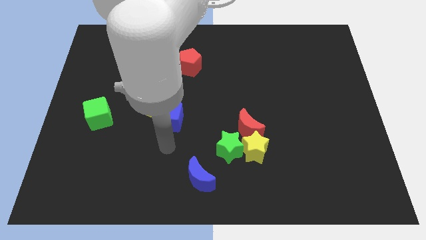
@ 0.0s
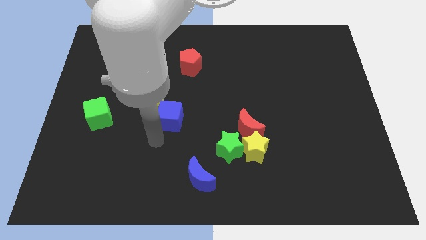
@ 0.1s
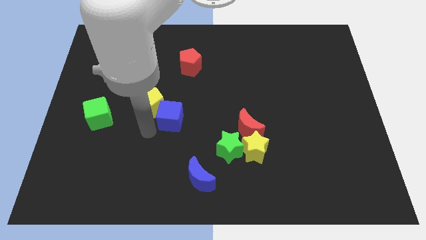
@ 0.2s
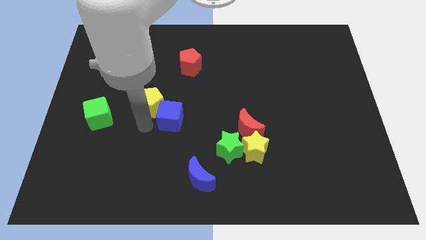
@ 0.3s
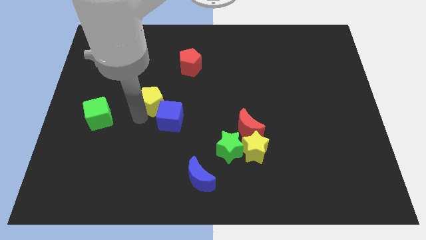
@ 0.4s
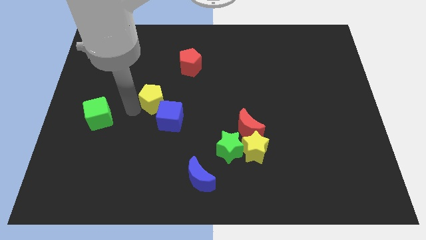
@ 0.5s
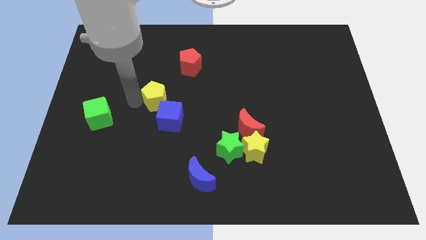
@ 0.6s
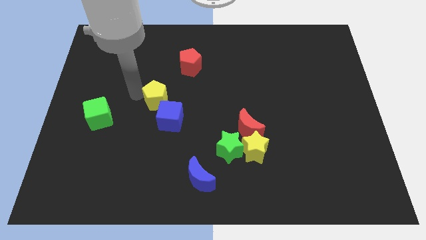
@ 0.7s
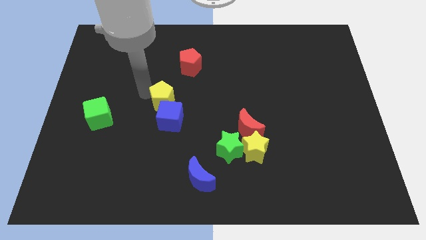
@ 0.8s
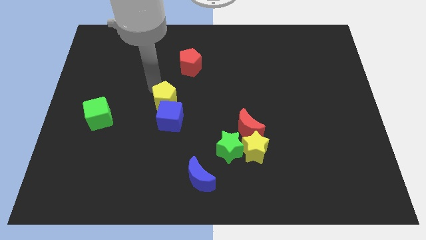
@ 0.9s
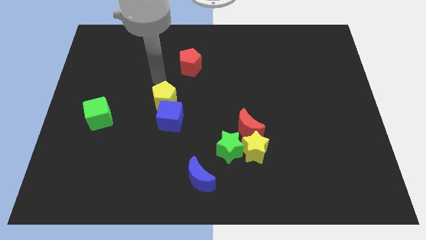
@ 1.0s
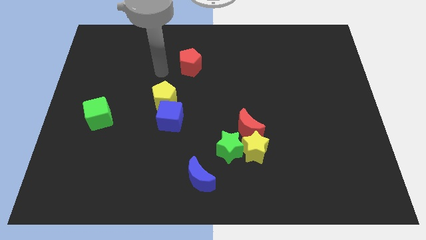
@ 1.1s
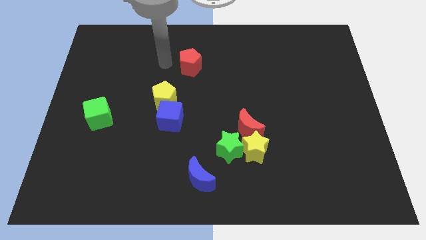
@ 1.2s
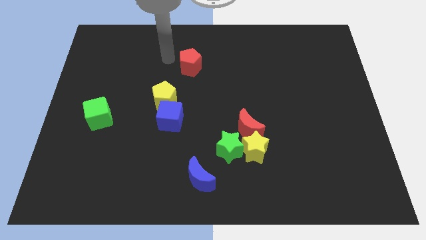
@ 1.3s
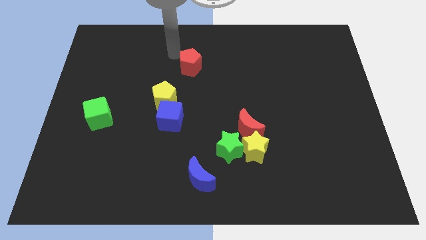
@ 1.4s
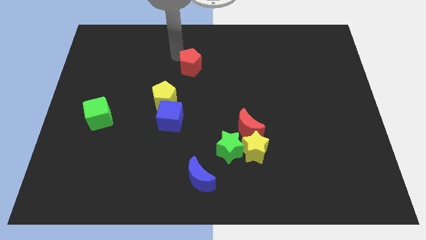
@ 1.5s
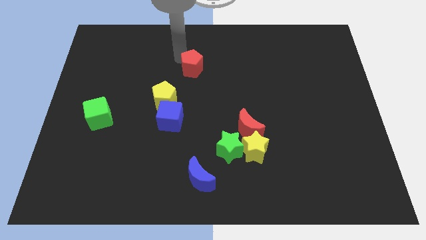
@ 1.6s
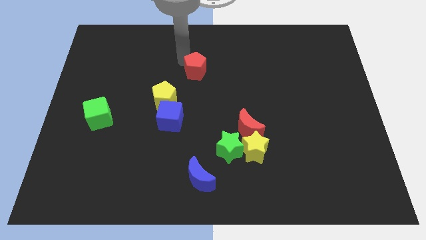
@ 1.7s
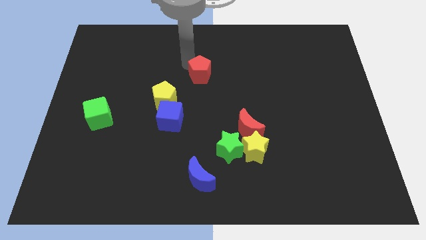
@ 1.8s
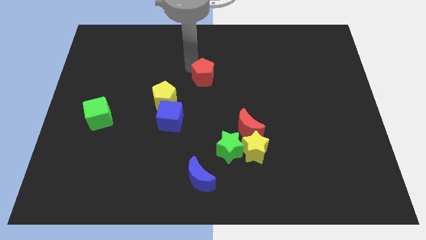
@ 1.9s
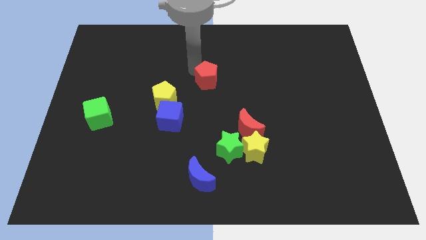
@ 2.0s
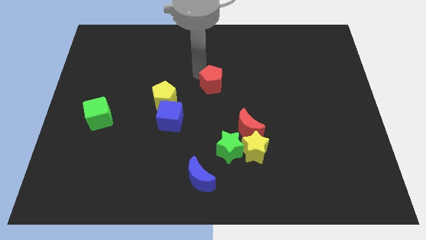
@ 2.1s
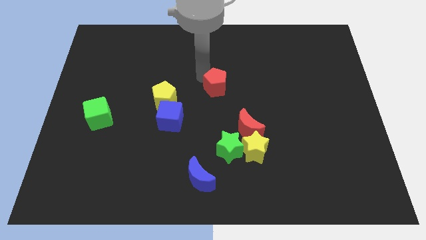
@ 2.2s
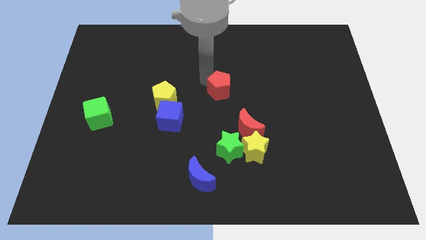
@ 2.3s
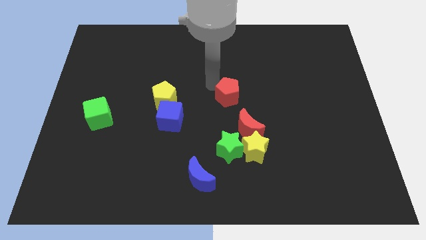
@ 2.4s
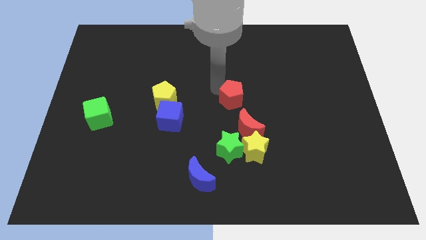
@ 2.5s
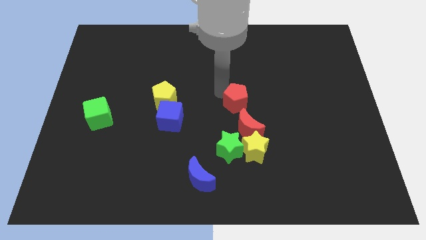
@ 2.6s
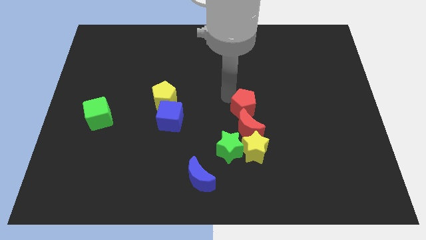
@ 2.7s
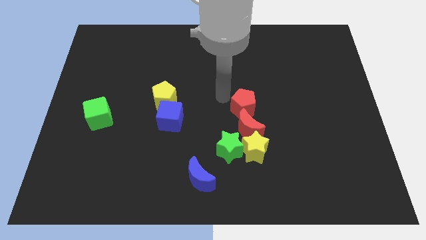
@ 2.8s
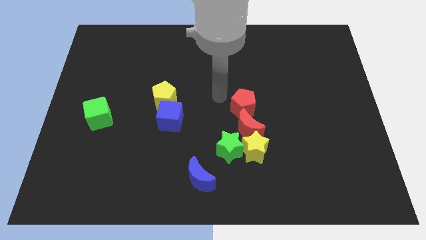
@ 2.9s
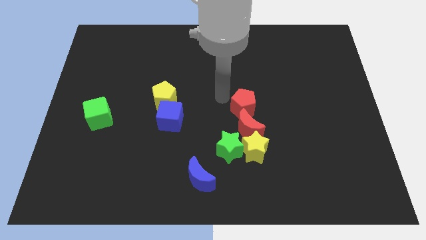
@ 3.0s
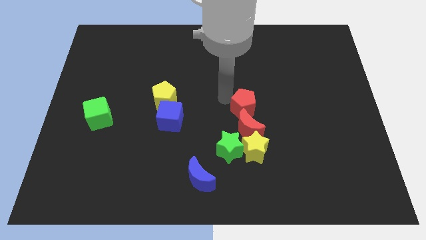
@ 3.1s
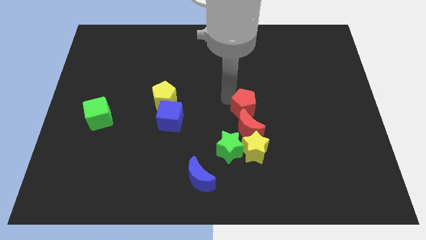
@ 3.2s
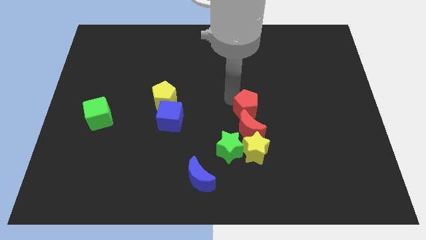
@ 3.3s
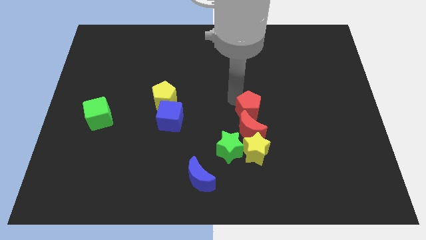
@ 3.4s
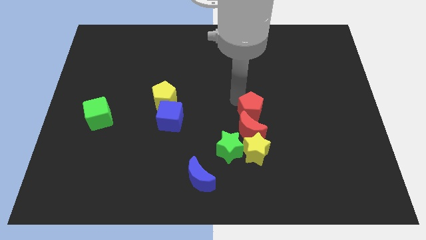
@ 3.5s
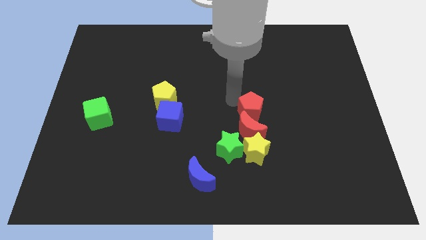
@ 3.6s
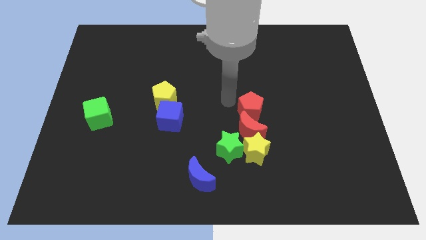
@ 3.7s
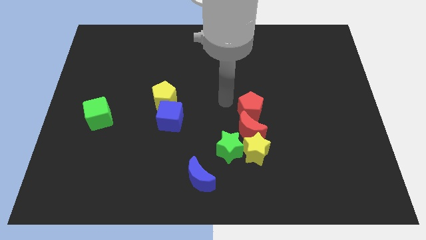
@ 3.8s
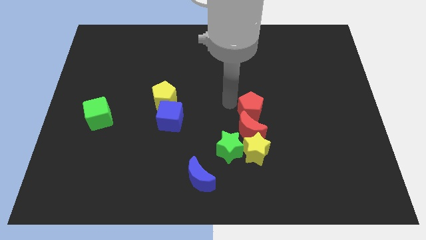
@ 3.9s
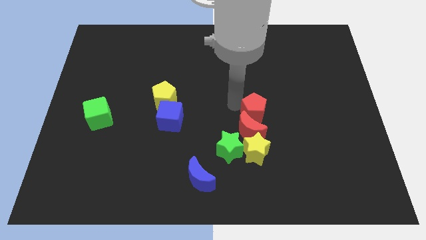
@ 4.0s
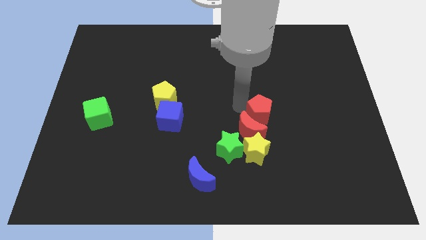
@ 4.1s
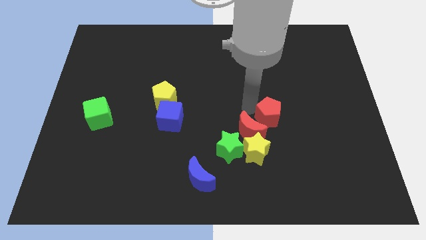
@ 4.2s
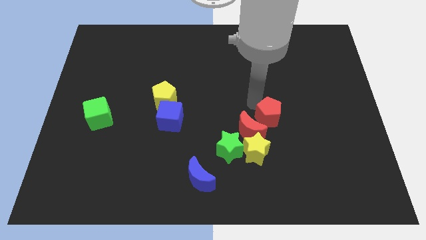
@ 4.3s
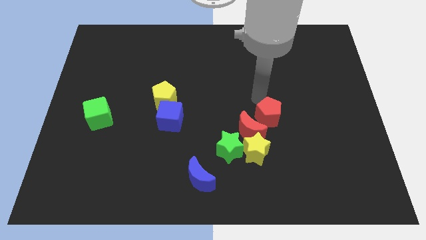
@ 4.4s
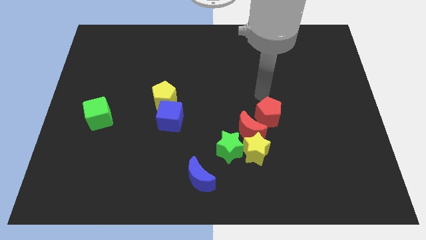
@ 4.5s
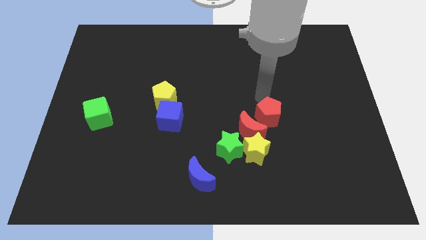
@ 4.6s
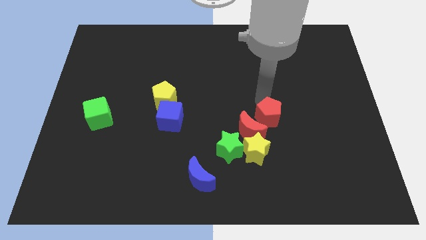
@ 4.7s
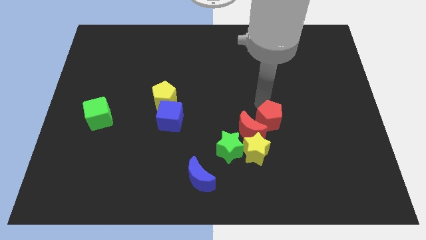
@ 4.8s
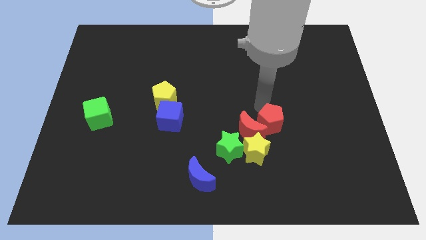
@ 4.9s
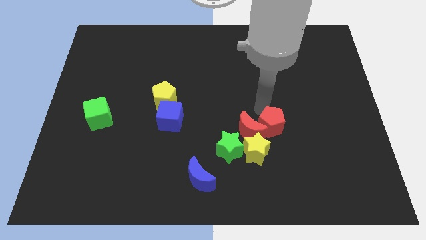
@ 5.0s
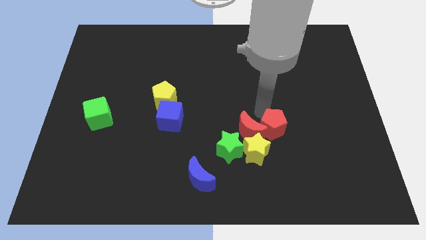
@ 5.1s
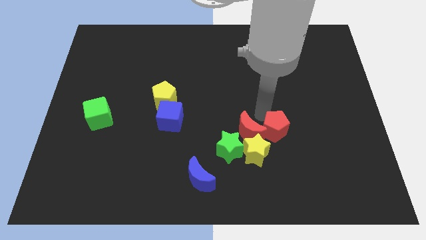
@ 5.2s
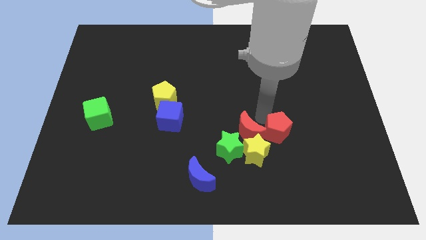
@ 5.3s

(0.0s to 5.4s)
push the red pentagon to the right of the green star

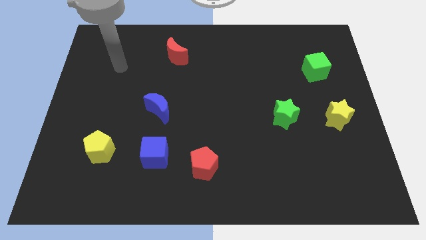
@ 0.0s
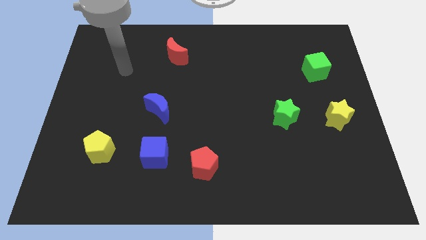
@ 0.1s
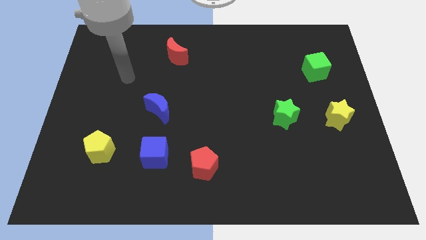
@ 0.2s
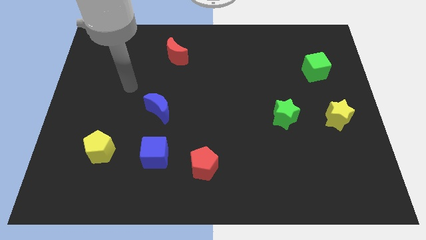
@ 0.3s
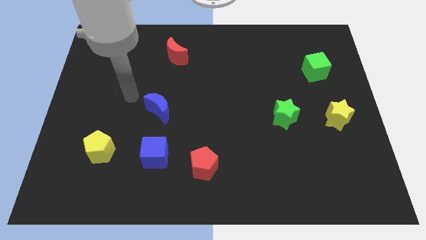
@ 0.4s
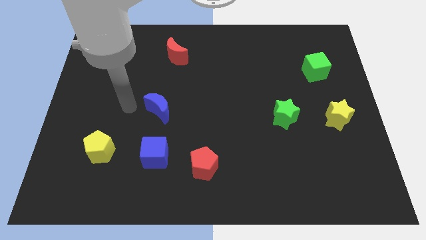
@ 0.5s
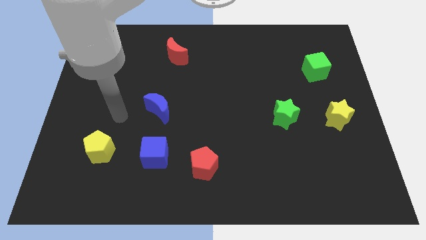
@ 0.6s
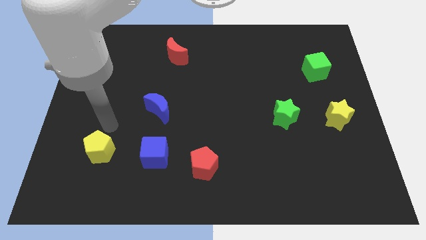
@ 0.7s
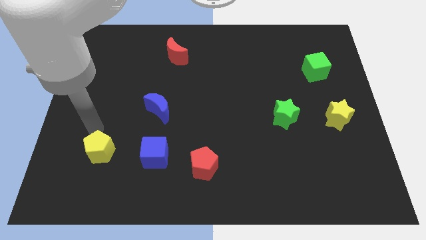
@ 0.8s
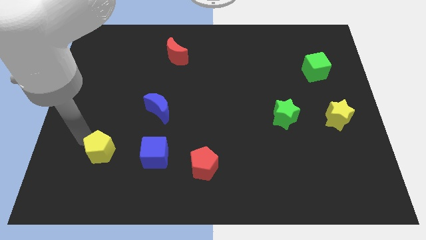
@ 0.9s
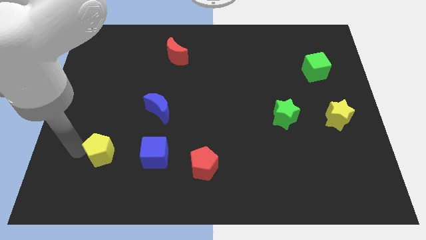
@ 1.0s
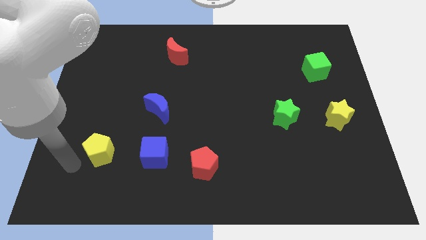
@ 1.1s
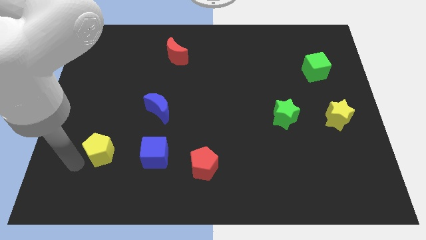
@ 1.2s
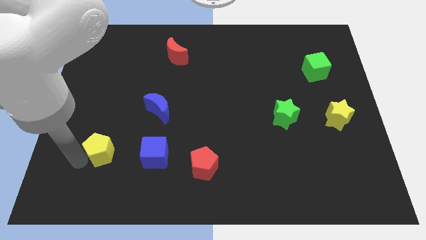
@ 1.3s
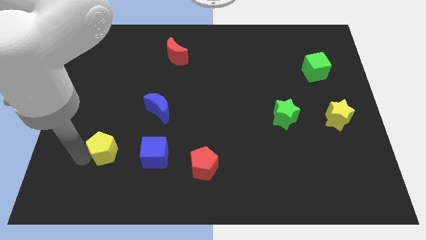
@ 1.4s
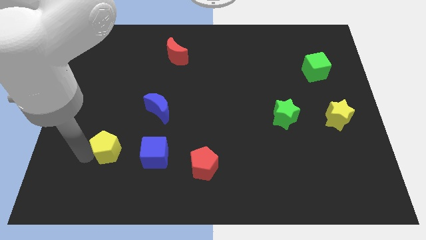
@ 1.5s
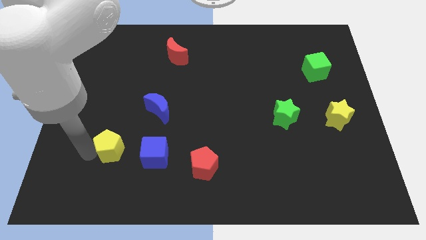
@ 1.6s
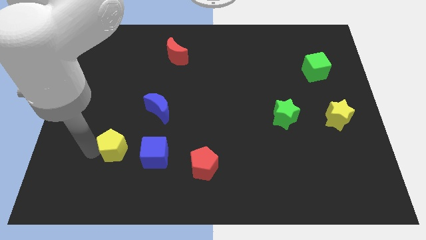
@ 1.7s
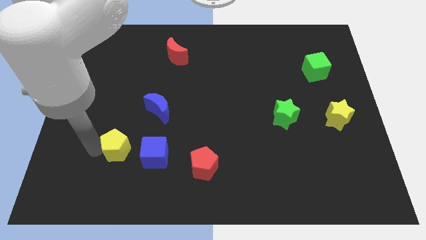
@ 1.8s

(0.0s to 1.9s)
push the yellow pentagon to the top left side of the blue cube

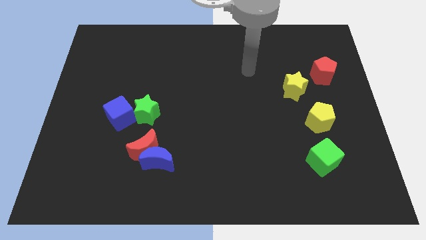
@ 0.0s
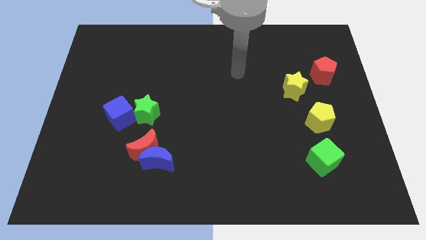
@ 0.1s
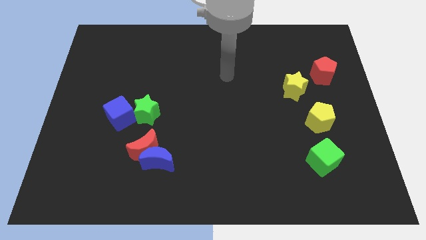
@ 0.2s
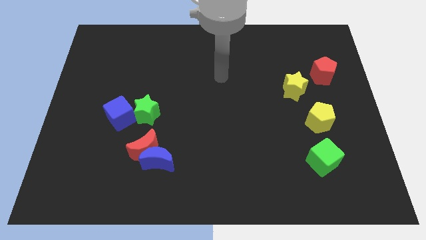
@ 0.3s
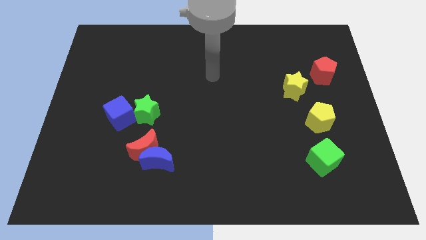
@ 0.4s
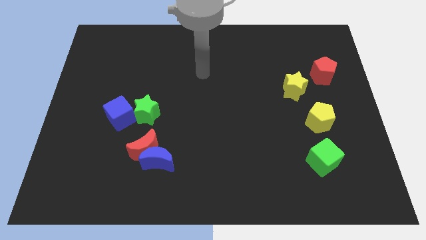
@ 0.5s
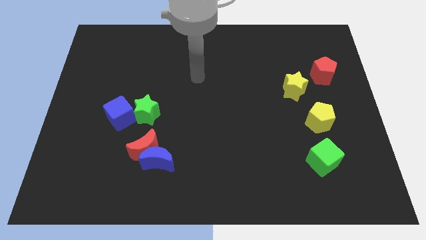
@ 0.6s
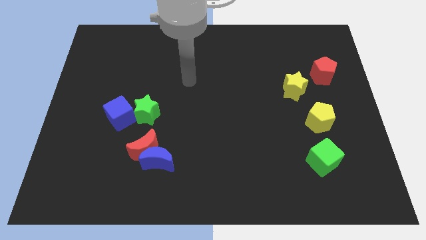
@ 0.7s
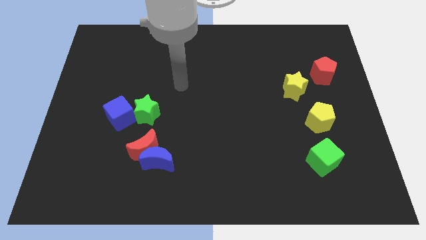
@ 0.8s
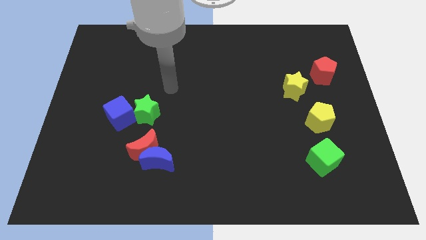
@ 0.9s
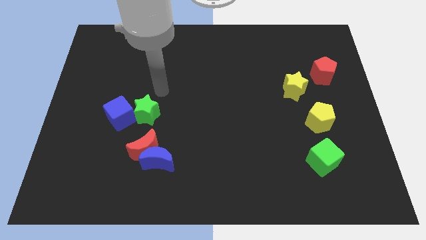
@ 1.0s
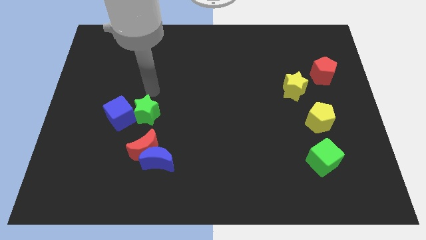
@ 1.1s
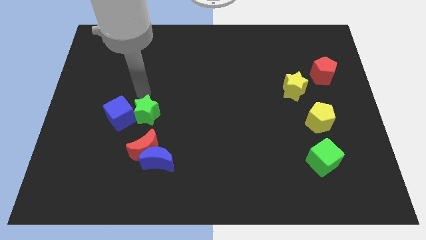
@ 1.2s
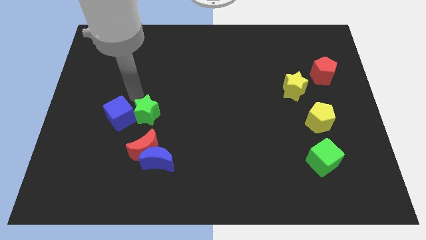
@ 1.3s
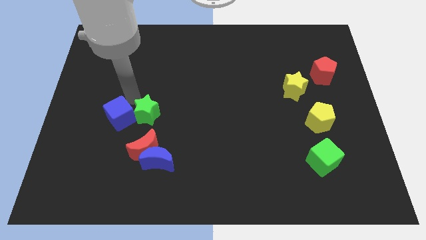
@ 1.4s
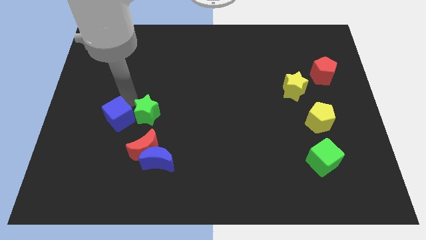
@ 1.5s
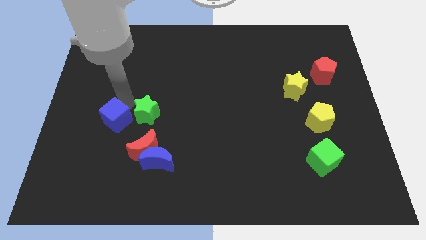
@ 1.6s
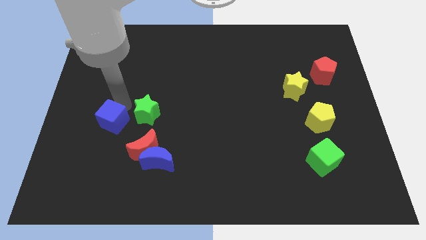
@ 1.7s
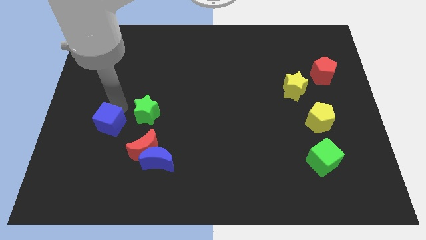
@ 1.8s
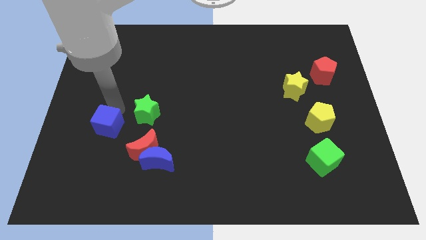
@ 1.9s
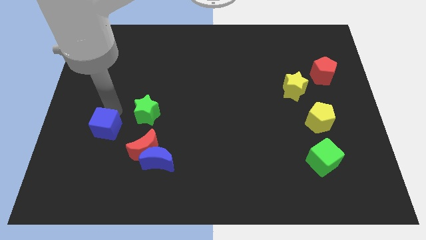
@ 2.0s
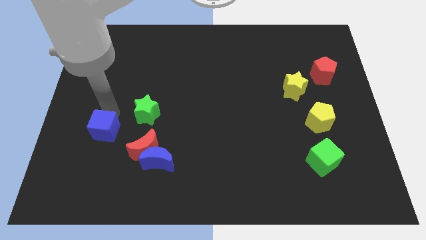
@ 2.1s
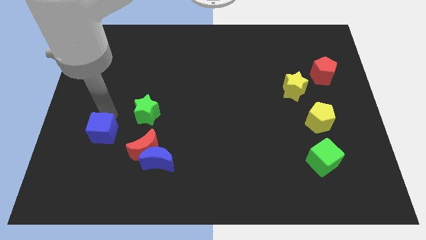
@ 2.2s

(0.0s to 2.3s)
push the blue cube left of the red moon
